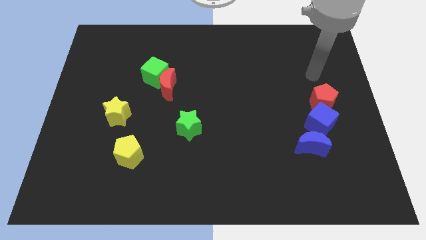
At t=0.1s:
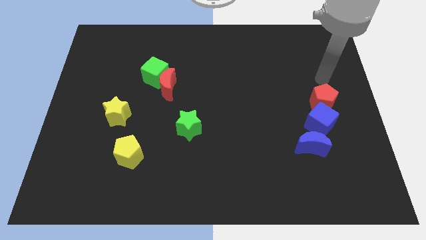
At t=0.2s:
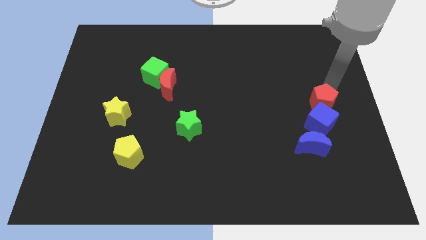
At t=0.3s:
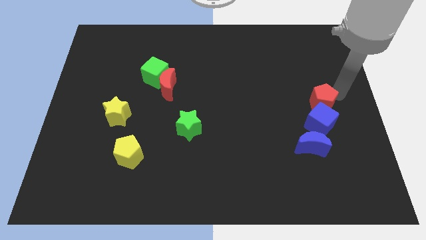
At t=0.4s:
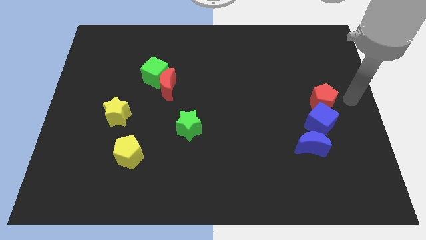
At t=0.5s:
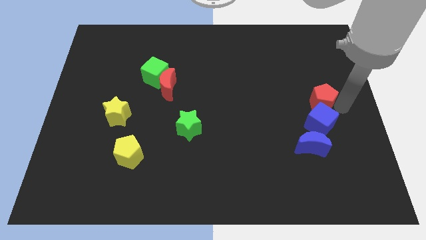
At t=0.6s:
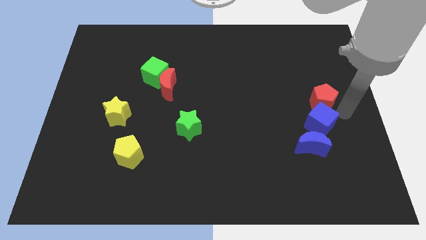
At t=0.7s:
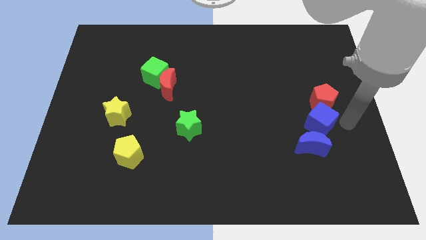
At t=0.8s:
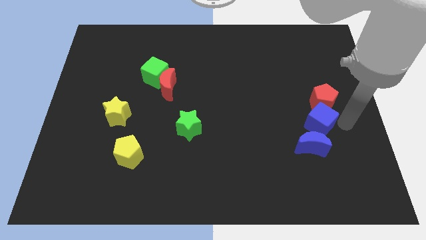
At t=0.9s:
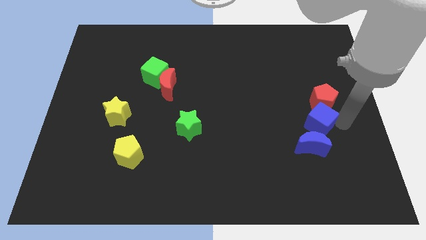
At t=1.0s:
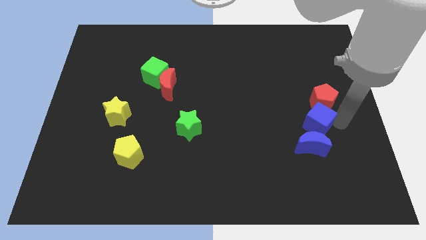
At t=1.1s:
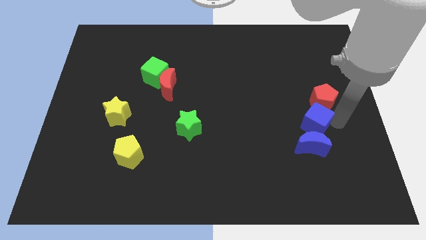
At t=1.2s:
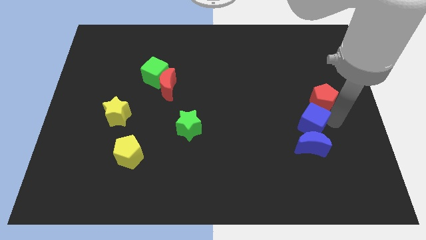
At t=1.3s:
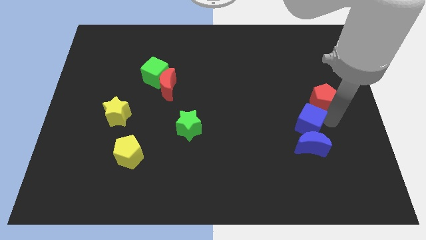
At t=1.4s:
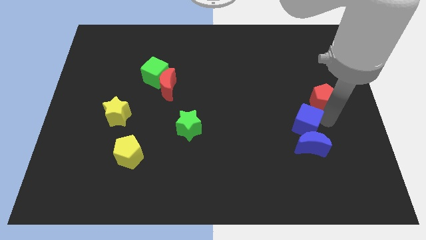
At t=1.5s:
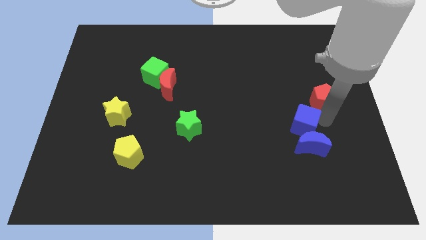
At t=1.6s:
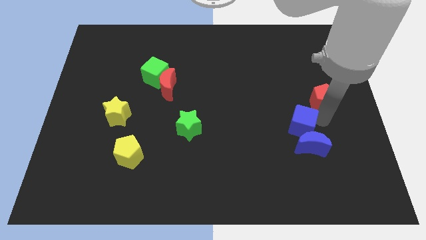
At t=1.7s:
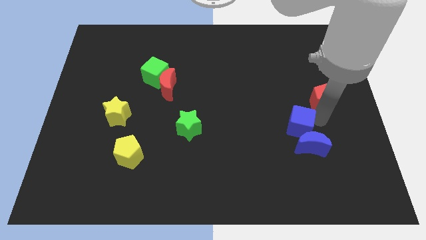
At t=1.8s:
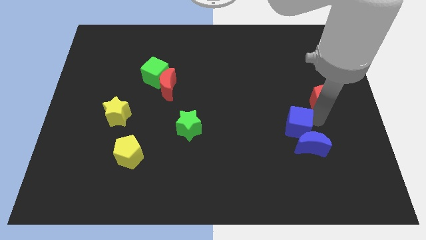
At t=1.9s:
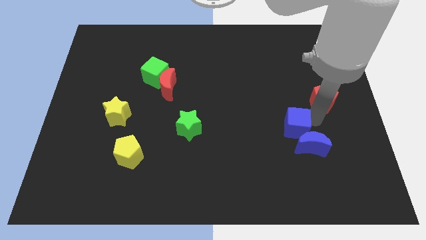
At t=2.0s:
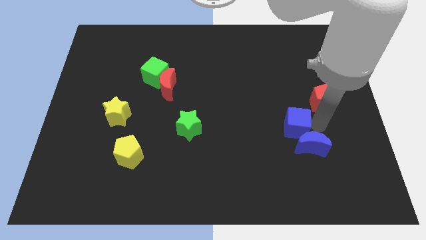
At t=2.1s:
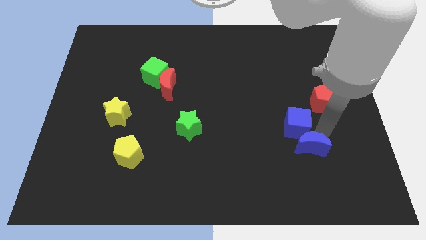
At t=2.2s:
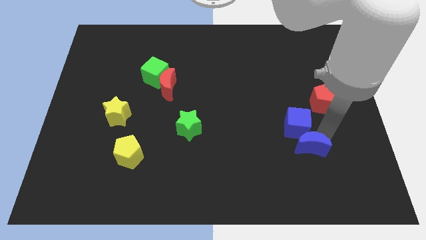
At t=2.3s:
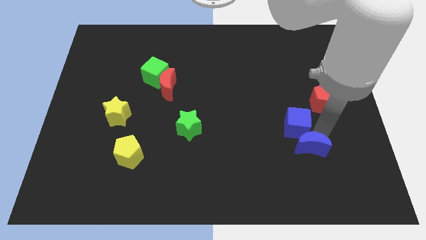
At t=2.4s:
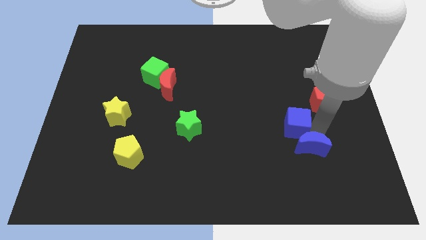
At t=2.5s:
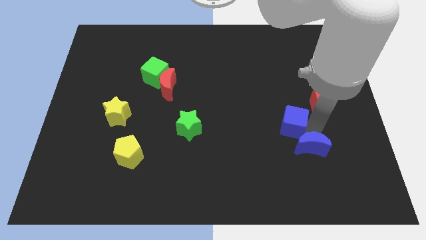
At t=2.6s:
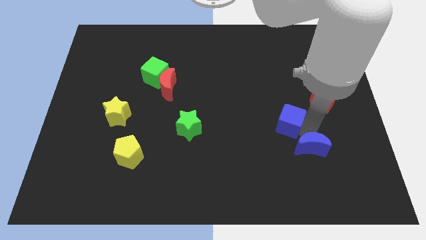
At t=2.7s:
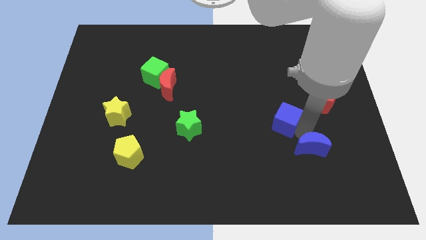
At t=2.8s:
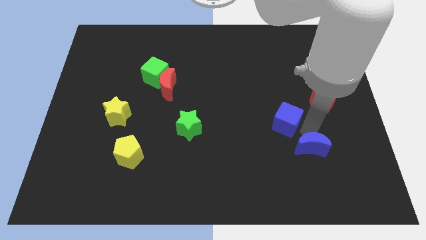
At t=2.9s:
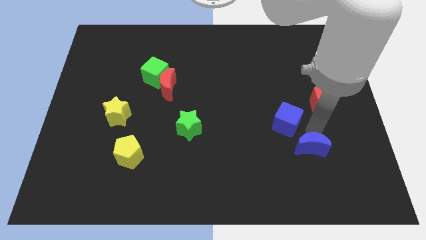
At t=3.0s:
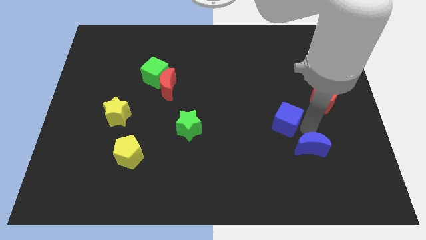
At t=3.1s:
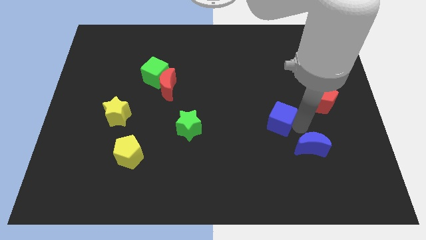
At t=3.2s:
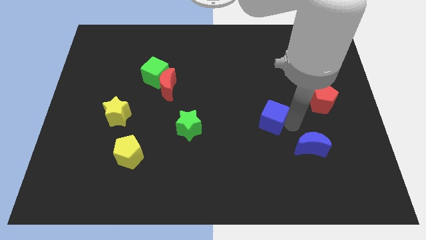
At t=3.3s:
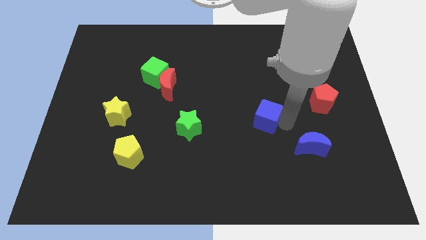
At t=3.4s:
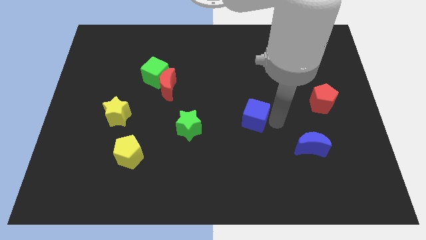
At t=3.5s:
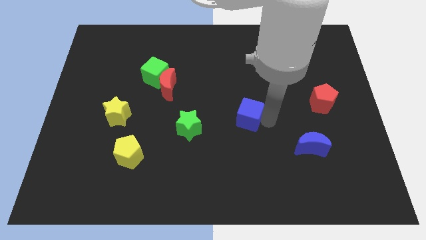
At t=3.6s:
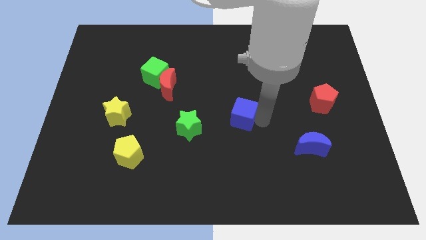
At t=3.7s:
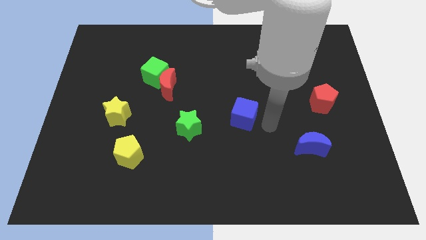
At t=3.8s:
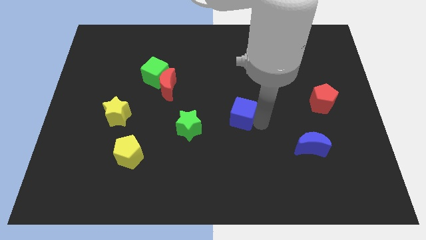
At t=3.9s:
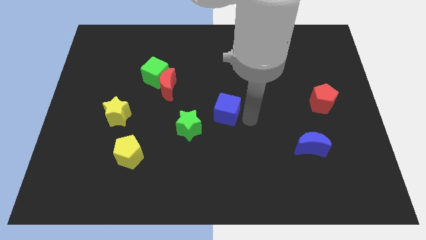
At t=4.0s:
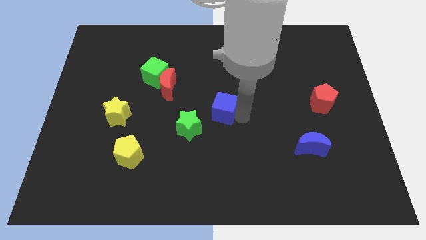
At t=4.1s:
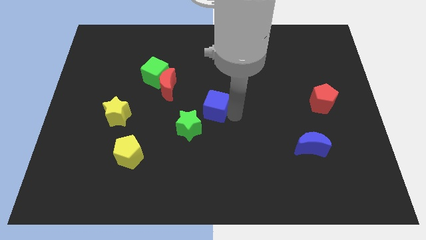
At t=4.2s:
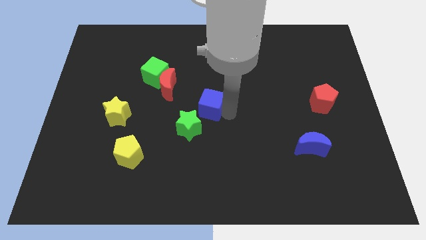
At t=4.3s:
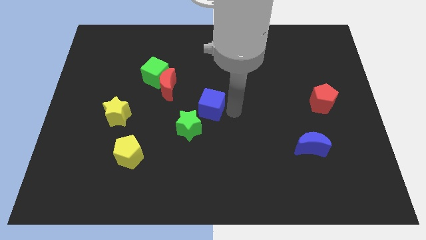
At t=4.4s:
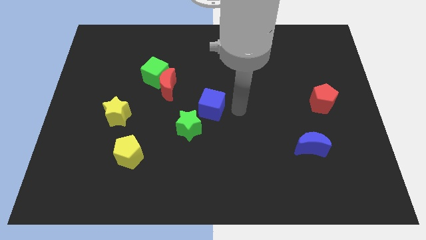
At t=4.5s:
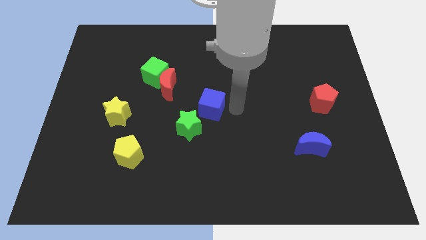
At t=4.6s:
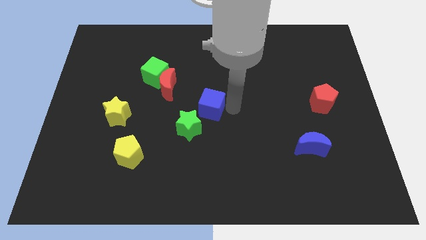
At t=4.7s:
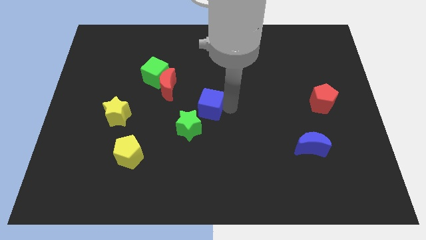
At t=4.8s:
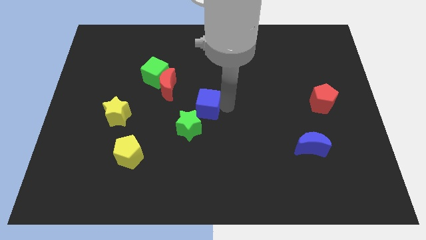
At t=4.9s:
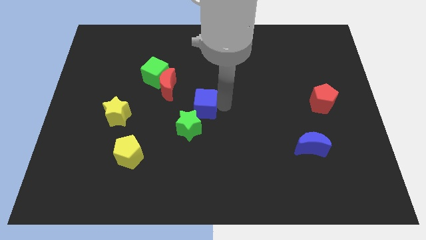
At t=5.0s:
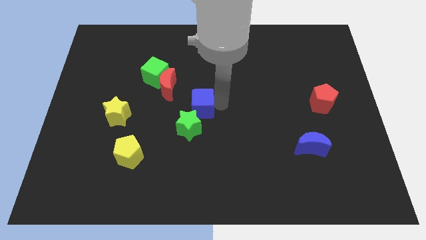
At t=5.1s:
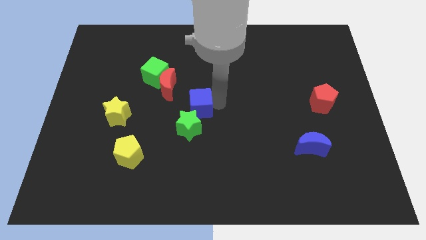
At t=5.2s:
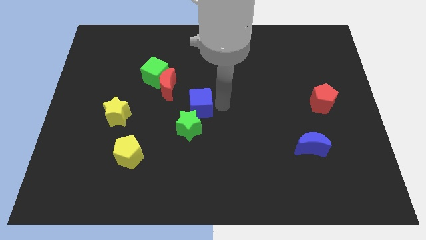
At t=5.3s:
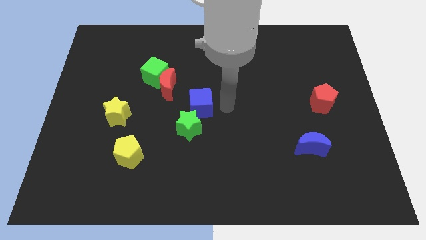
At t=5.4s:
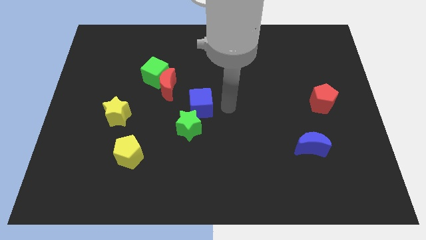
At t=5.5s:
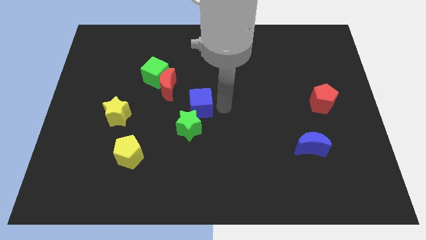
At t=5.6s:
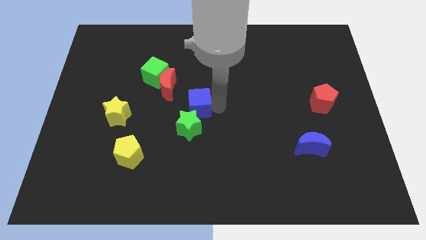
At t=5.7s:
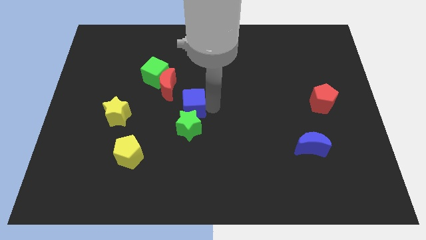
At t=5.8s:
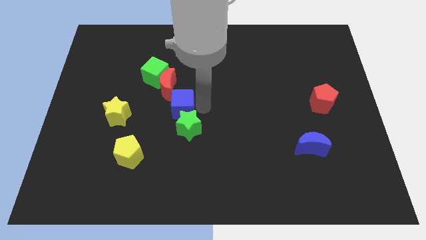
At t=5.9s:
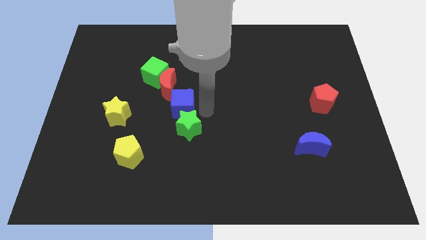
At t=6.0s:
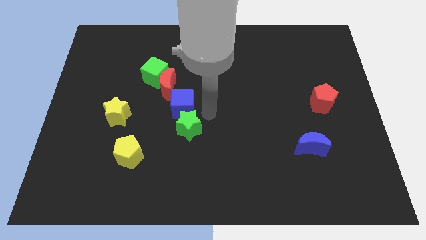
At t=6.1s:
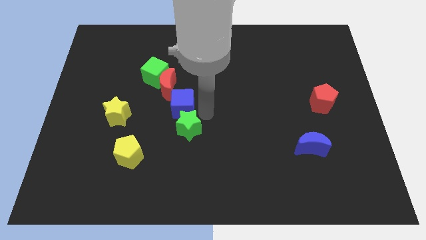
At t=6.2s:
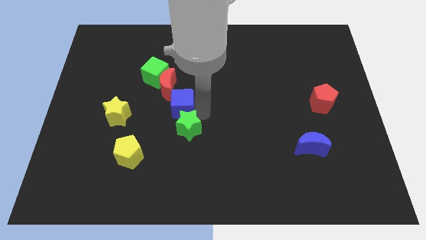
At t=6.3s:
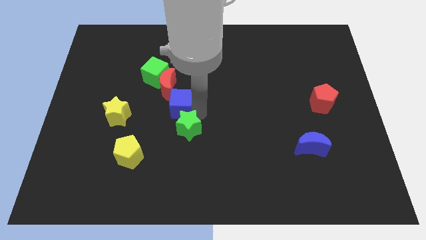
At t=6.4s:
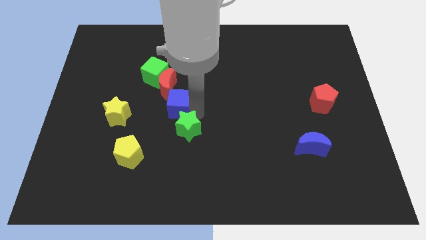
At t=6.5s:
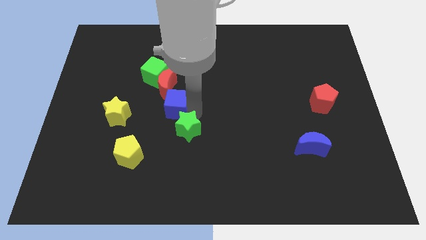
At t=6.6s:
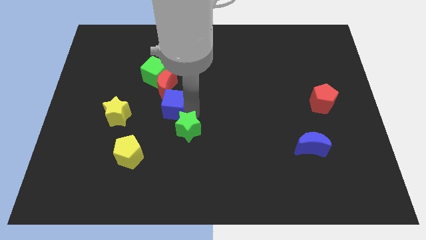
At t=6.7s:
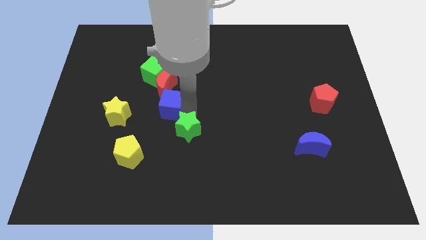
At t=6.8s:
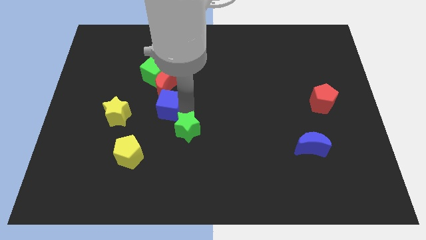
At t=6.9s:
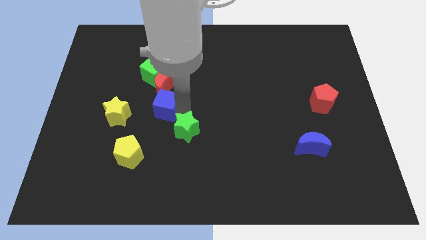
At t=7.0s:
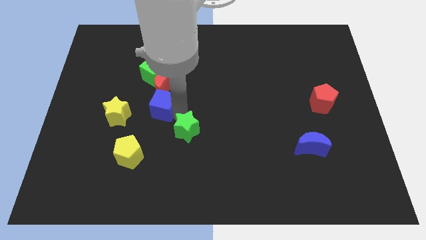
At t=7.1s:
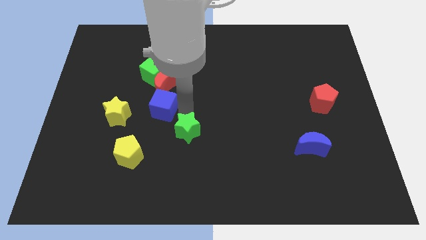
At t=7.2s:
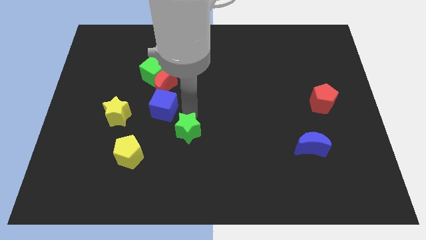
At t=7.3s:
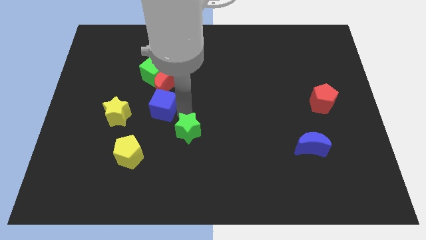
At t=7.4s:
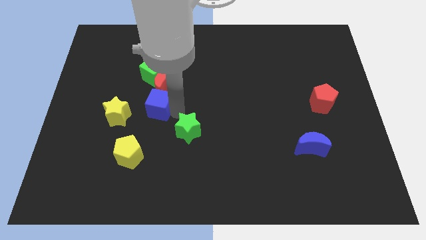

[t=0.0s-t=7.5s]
push the blue cube to the bottom left side of the red moon

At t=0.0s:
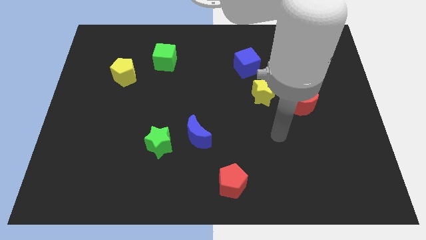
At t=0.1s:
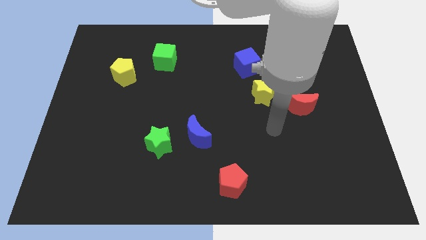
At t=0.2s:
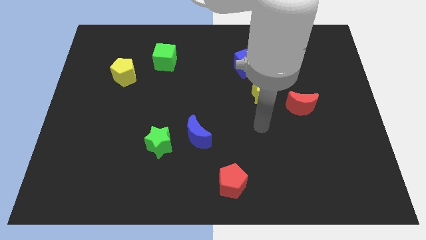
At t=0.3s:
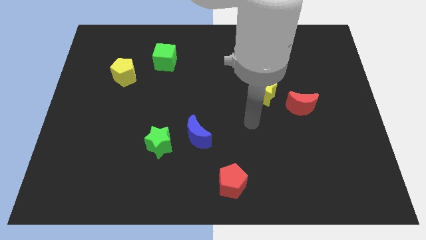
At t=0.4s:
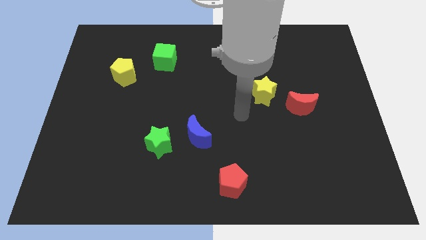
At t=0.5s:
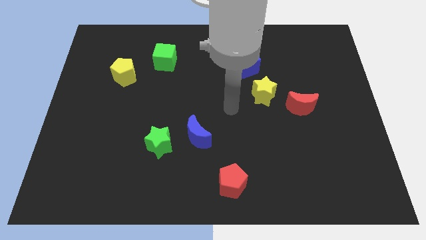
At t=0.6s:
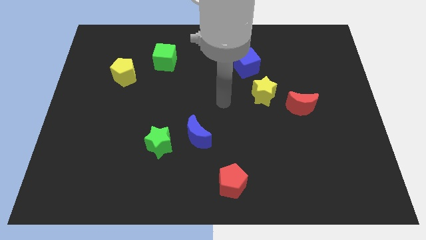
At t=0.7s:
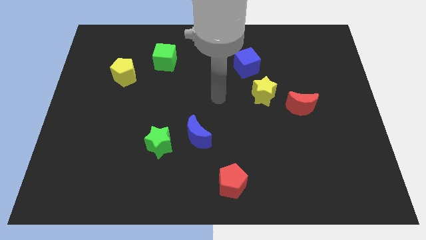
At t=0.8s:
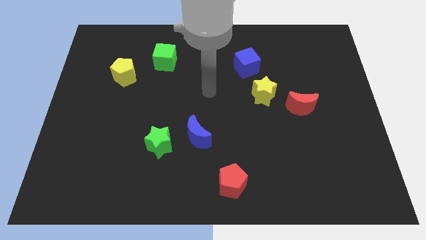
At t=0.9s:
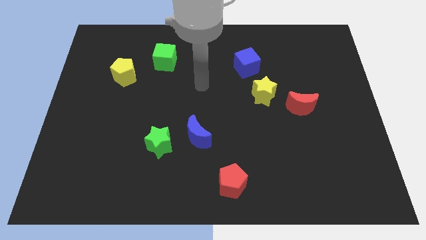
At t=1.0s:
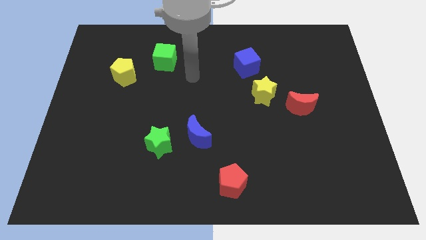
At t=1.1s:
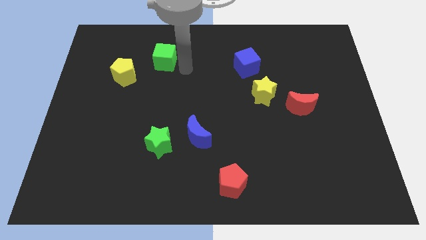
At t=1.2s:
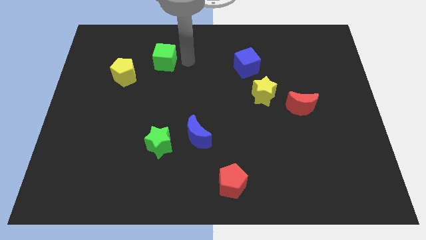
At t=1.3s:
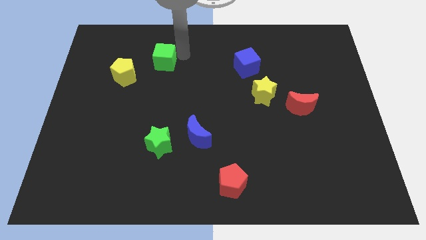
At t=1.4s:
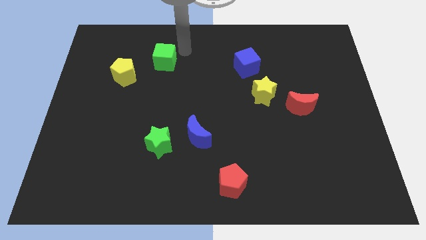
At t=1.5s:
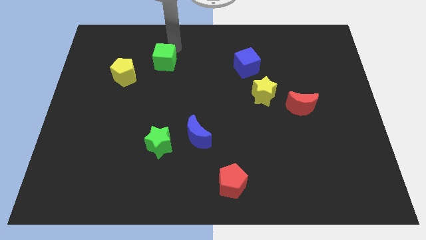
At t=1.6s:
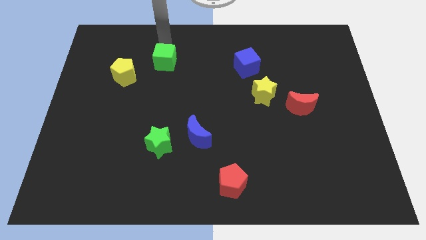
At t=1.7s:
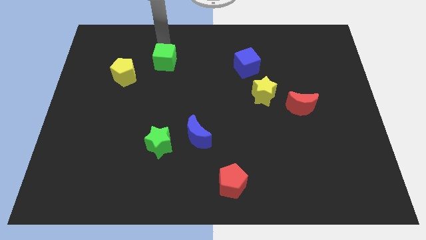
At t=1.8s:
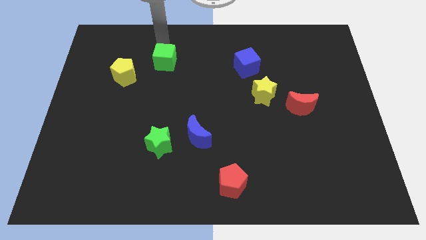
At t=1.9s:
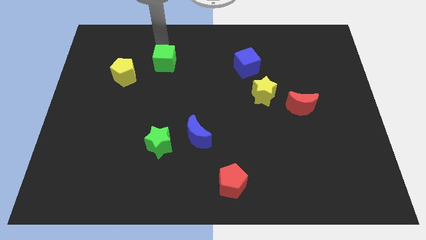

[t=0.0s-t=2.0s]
slide the green cube just right of the yellow pentagon
